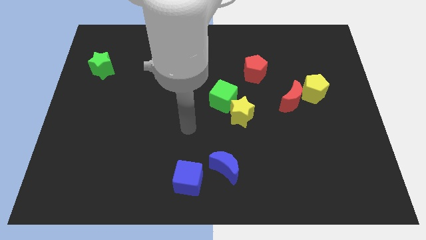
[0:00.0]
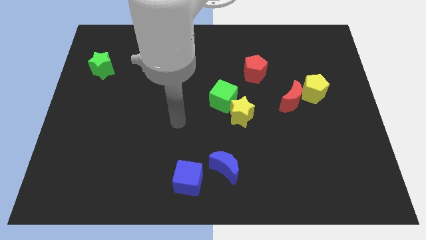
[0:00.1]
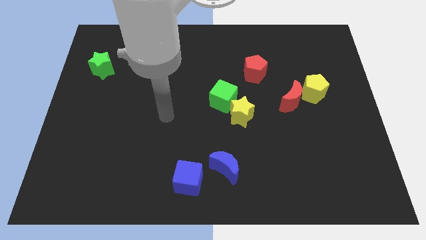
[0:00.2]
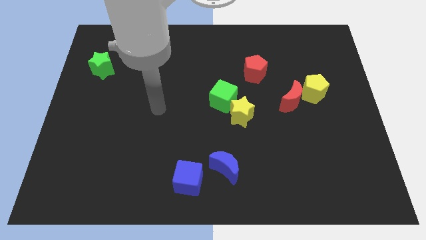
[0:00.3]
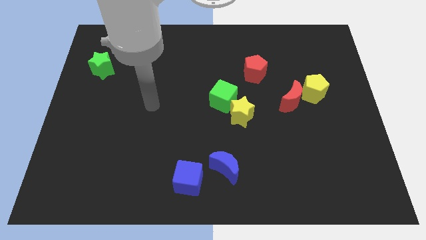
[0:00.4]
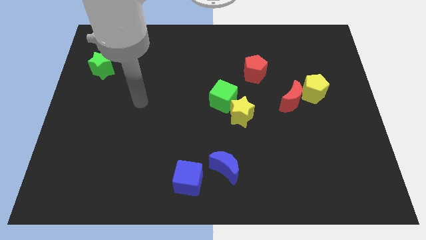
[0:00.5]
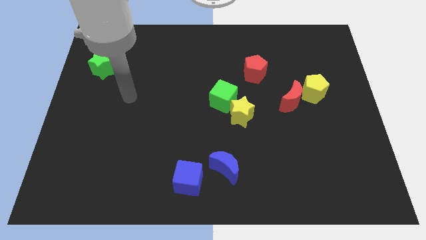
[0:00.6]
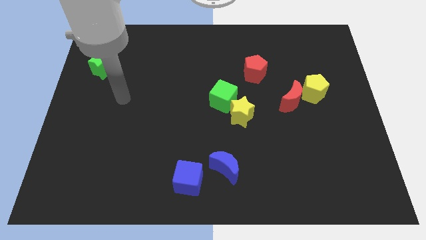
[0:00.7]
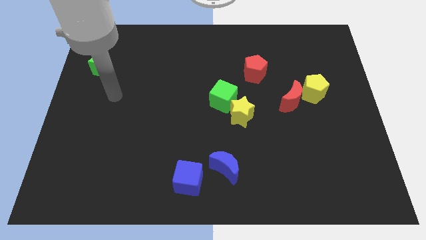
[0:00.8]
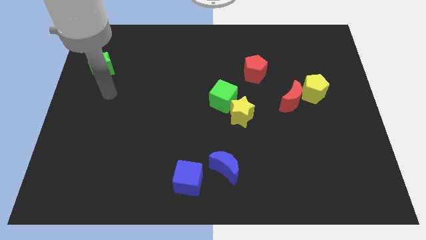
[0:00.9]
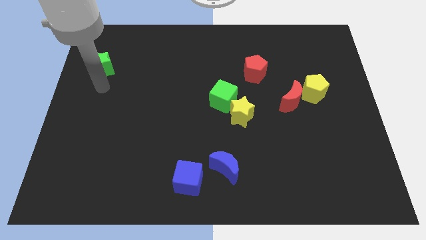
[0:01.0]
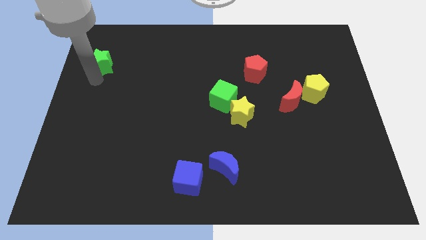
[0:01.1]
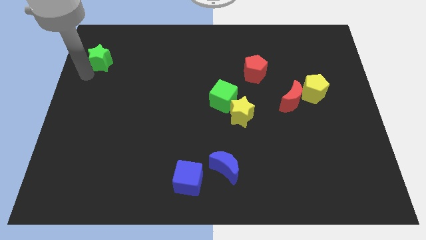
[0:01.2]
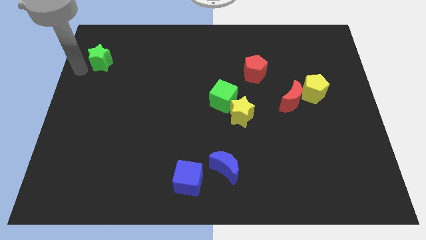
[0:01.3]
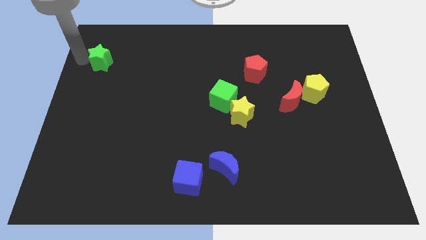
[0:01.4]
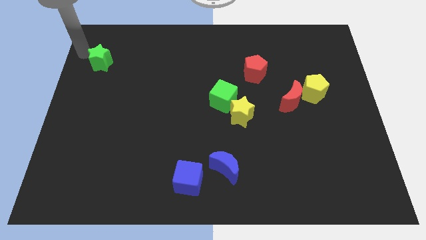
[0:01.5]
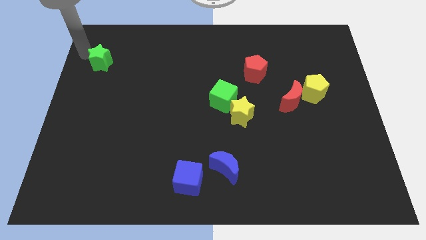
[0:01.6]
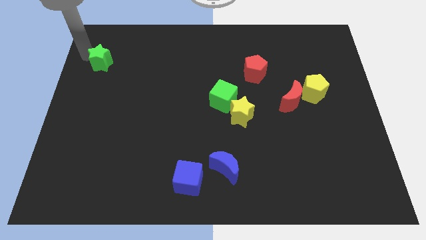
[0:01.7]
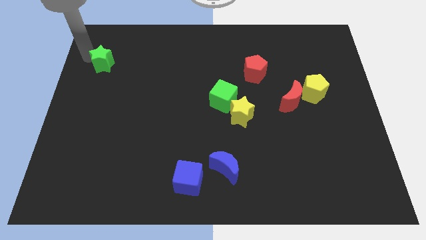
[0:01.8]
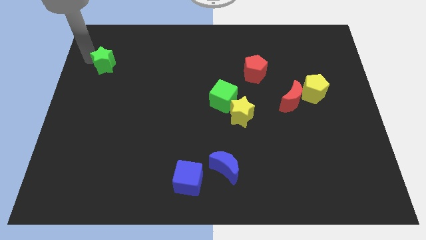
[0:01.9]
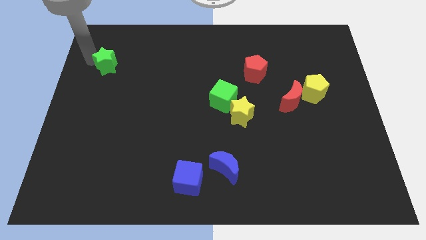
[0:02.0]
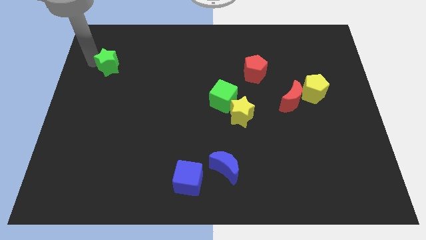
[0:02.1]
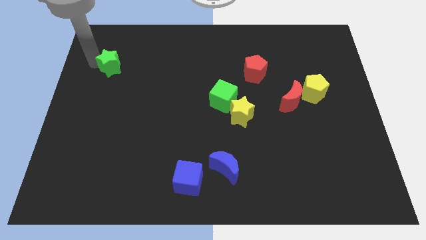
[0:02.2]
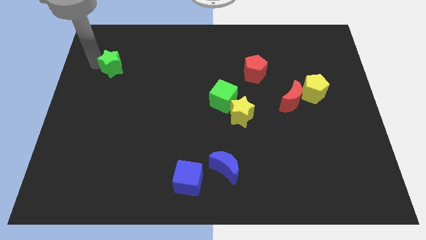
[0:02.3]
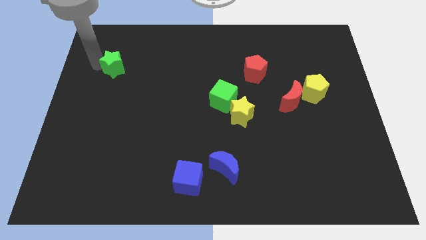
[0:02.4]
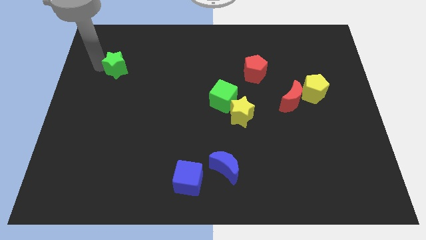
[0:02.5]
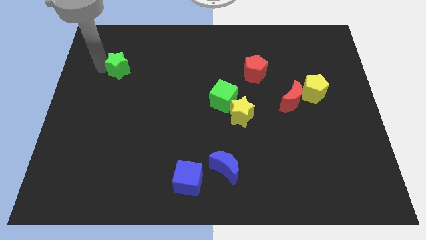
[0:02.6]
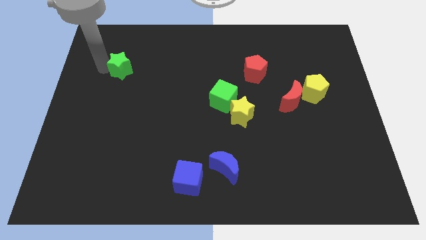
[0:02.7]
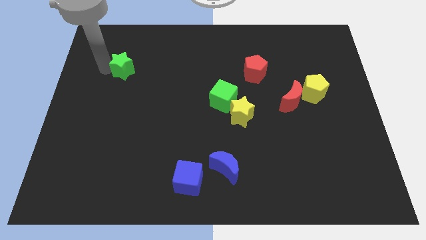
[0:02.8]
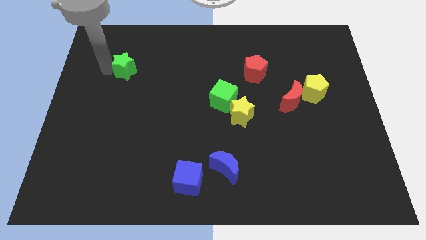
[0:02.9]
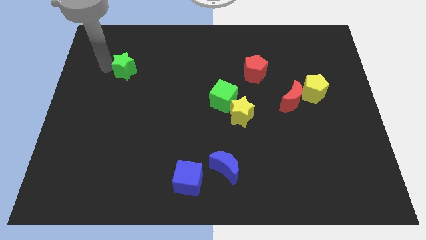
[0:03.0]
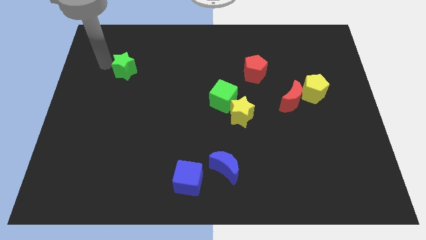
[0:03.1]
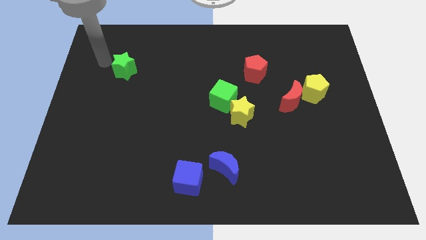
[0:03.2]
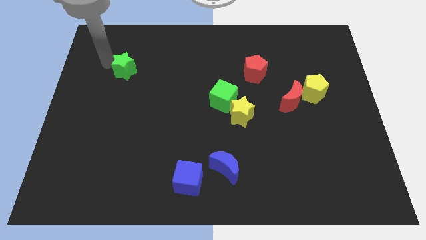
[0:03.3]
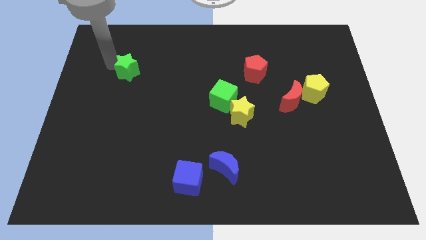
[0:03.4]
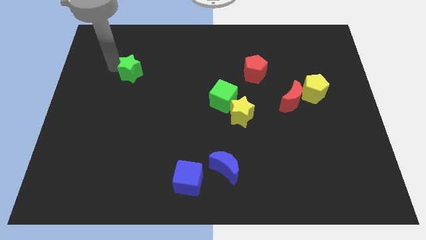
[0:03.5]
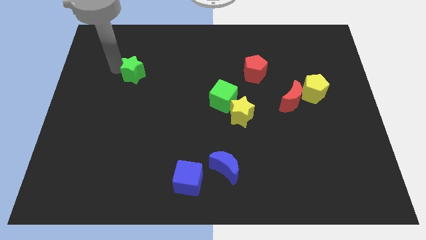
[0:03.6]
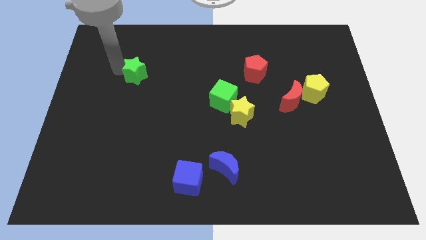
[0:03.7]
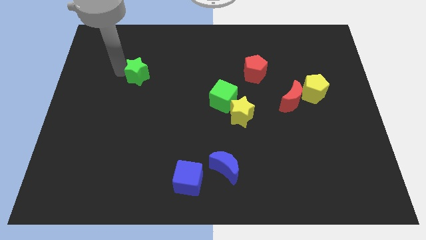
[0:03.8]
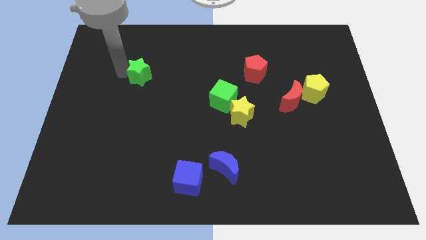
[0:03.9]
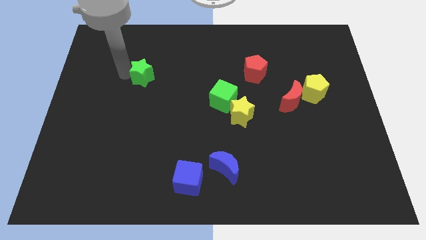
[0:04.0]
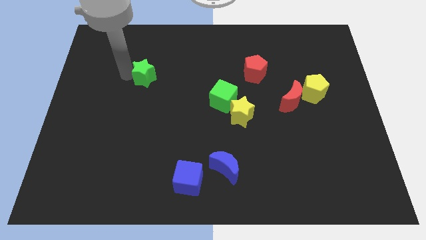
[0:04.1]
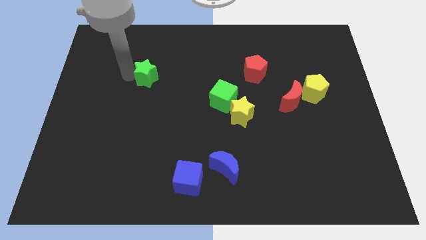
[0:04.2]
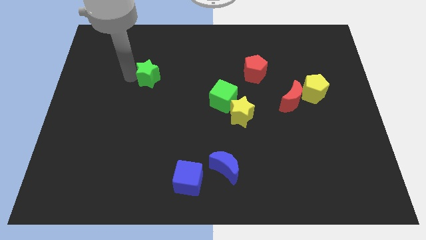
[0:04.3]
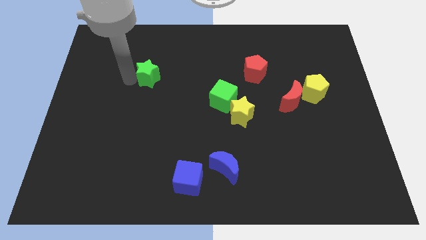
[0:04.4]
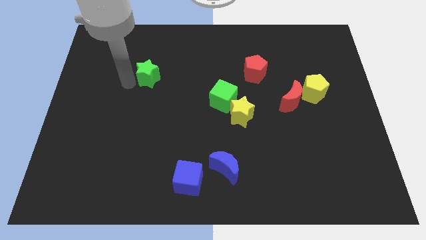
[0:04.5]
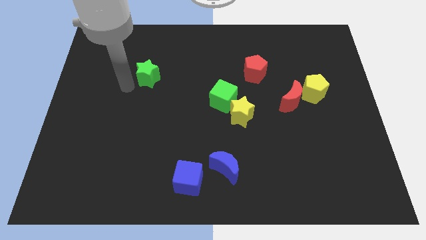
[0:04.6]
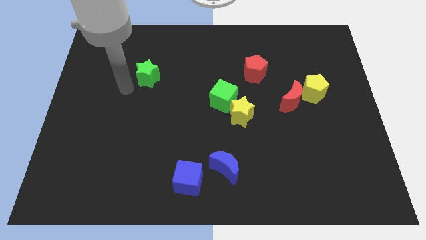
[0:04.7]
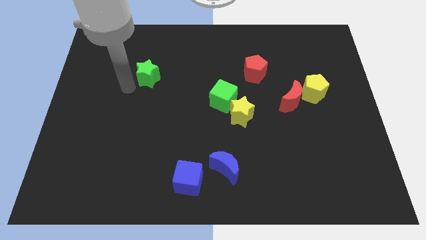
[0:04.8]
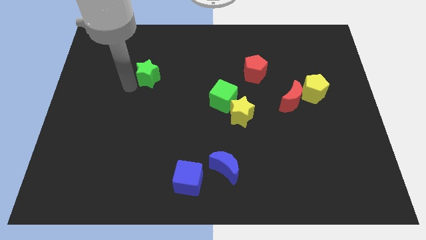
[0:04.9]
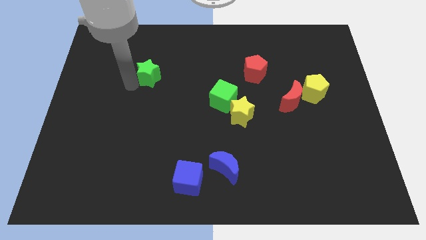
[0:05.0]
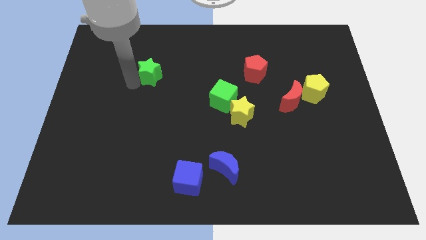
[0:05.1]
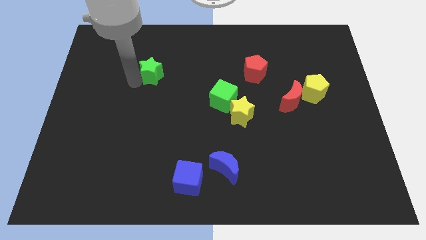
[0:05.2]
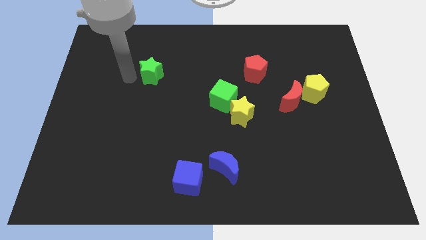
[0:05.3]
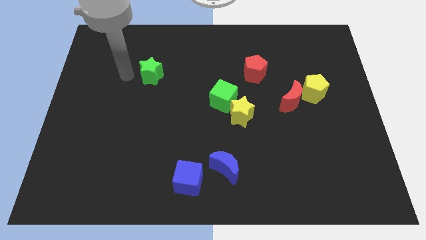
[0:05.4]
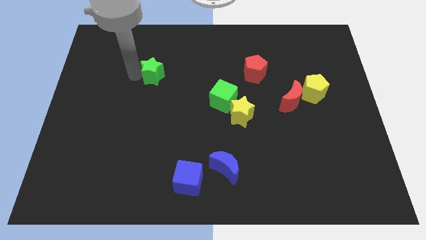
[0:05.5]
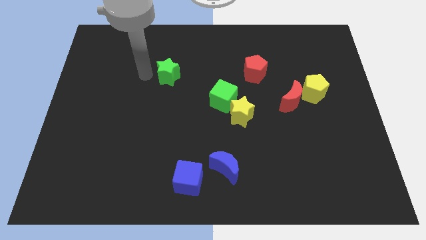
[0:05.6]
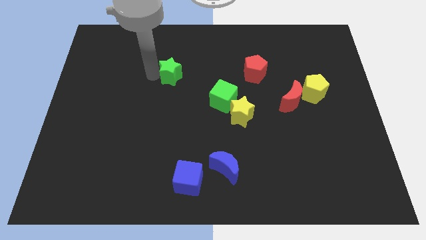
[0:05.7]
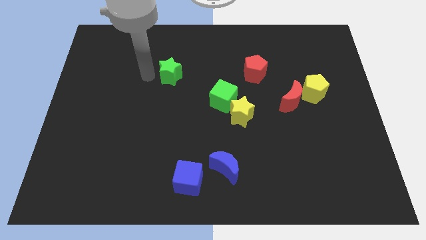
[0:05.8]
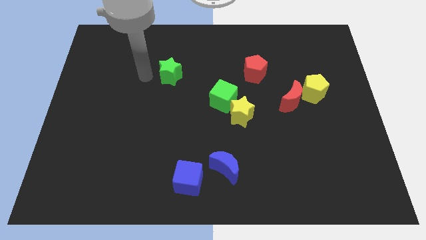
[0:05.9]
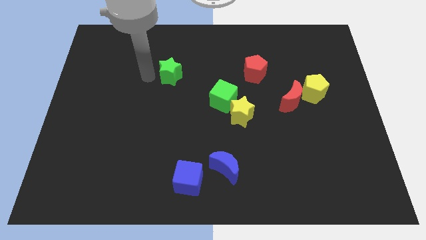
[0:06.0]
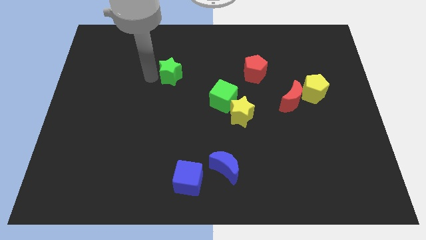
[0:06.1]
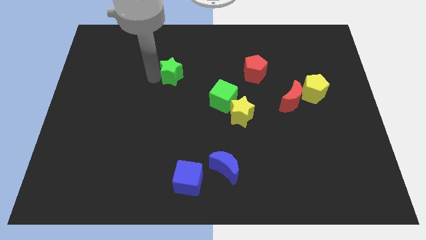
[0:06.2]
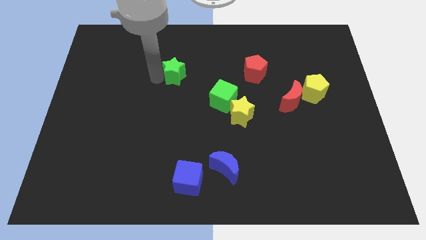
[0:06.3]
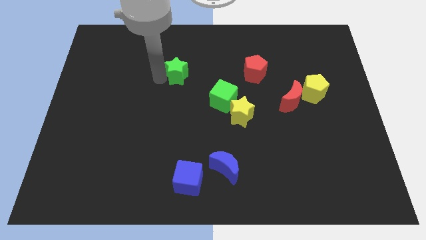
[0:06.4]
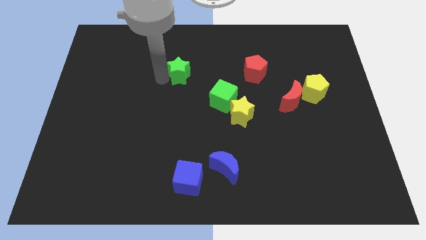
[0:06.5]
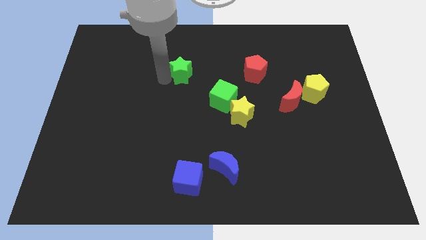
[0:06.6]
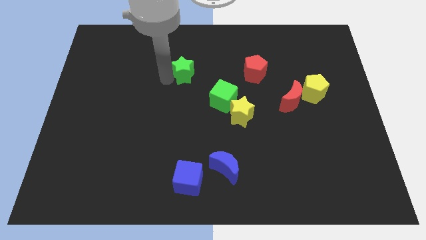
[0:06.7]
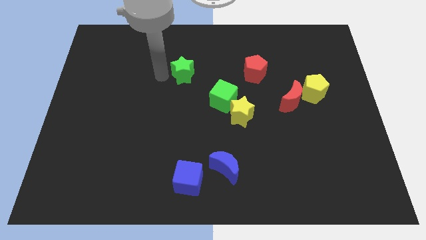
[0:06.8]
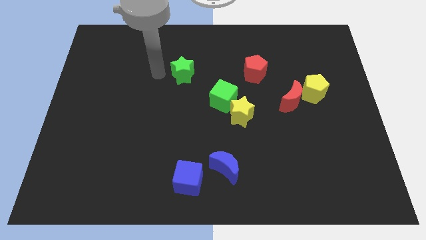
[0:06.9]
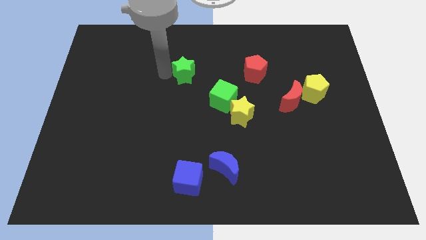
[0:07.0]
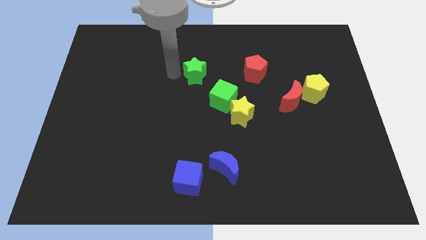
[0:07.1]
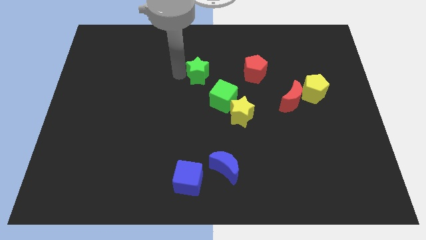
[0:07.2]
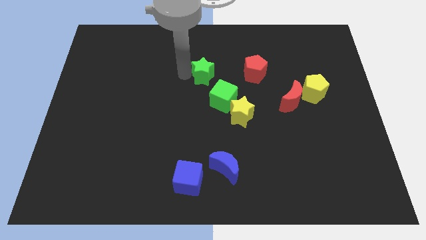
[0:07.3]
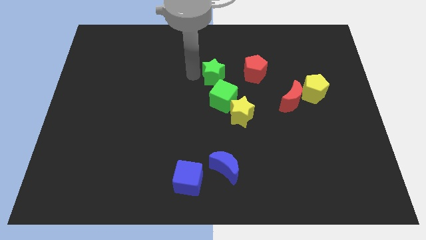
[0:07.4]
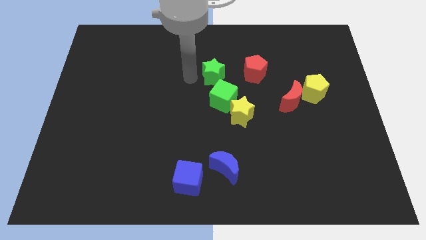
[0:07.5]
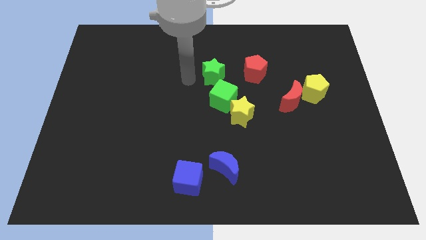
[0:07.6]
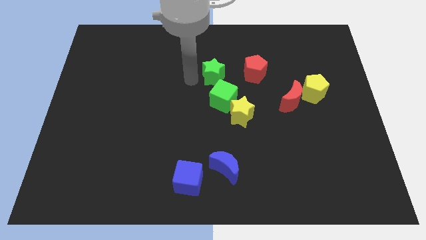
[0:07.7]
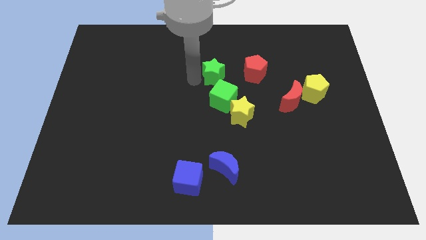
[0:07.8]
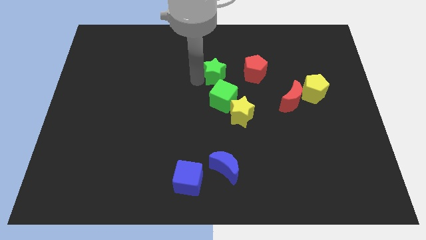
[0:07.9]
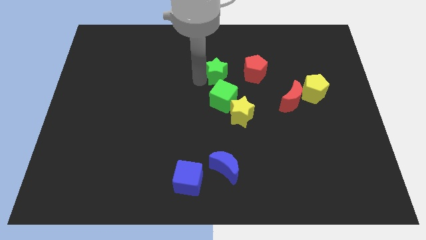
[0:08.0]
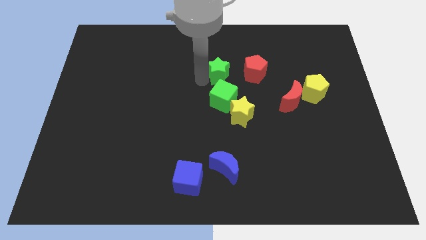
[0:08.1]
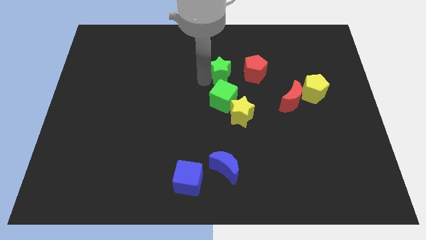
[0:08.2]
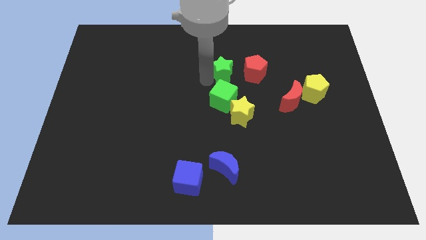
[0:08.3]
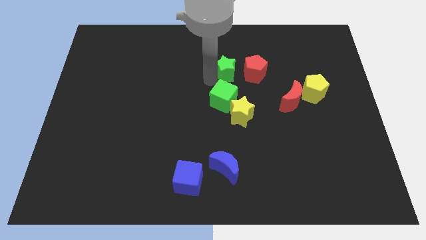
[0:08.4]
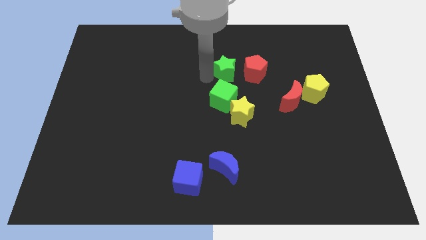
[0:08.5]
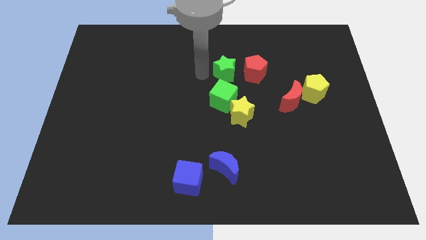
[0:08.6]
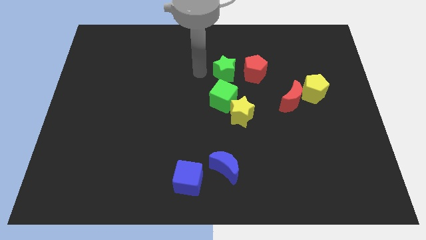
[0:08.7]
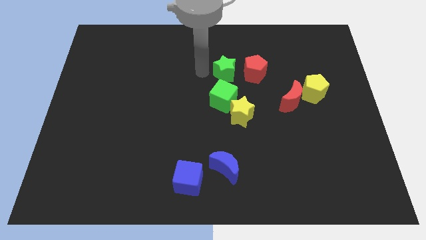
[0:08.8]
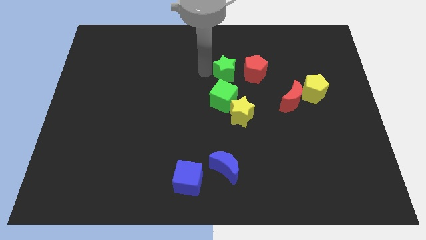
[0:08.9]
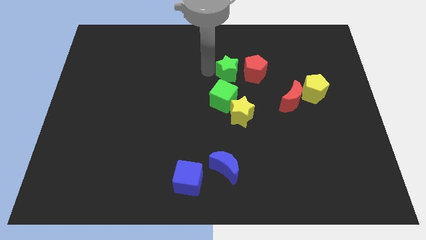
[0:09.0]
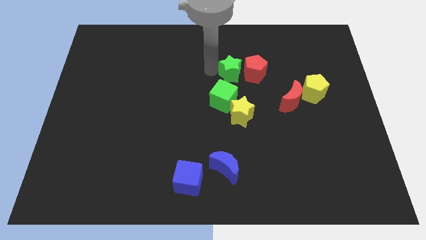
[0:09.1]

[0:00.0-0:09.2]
slide the green star to the red pentagon
